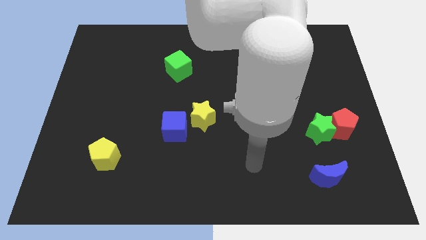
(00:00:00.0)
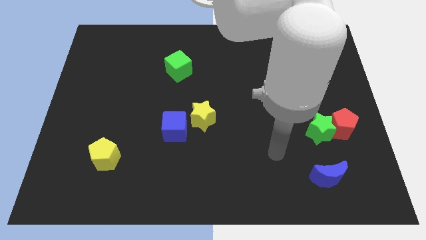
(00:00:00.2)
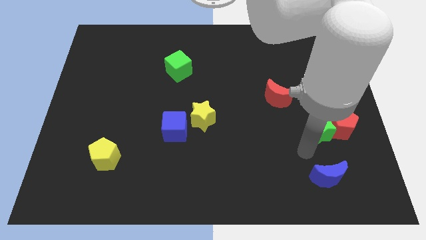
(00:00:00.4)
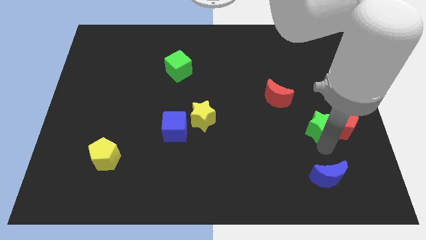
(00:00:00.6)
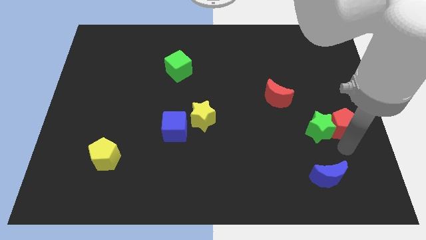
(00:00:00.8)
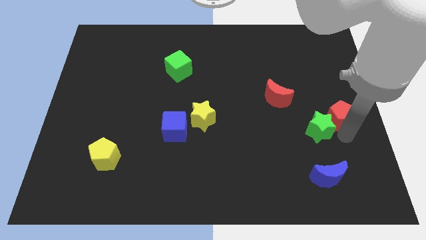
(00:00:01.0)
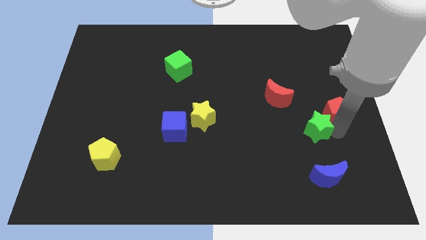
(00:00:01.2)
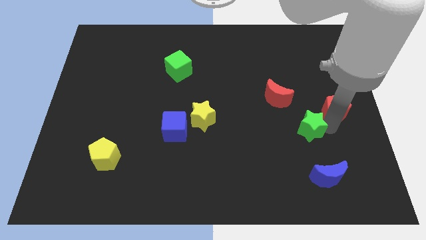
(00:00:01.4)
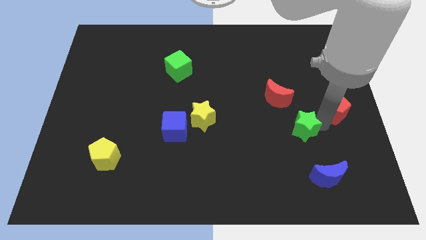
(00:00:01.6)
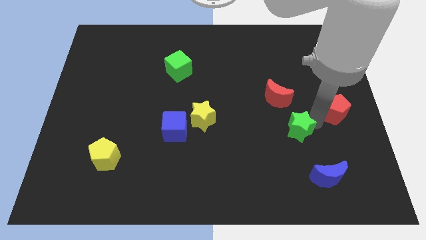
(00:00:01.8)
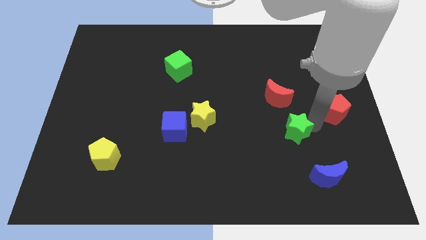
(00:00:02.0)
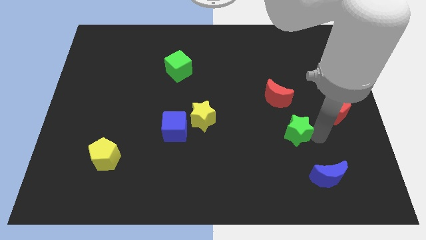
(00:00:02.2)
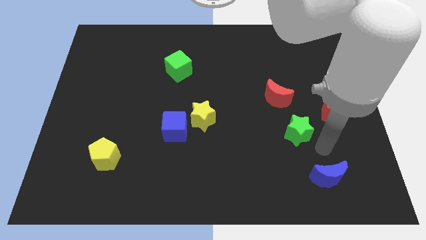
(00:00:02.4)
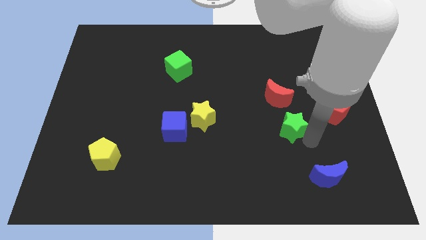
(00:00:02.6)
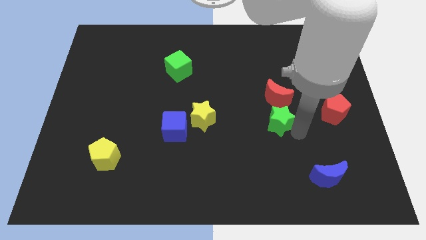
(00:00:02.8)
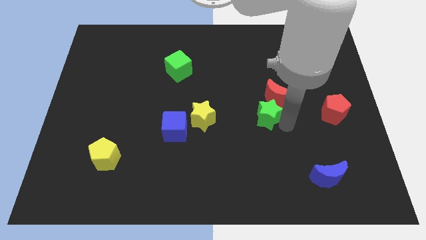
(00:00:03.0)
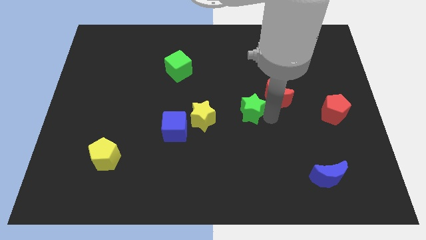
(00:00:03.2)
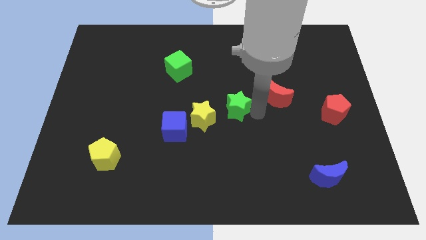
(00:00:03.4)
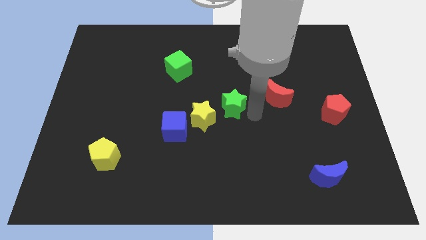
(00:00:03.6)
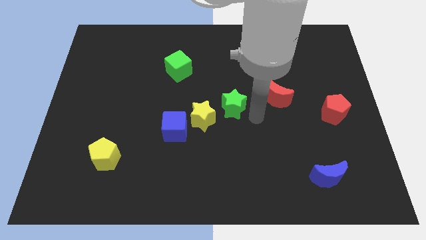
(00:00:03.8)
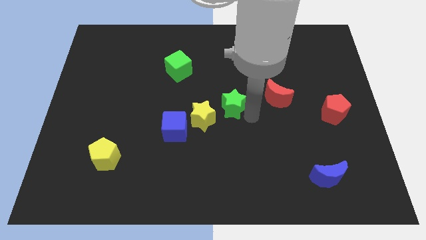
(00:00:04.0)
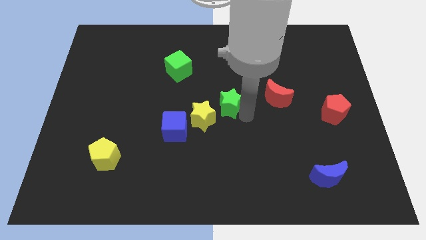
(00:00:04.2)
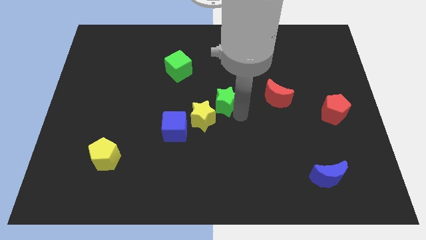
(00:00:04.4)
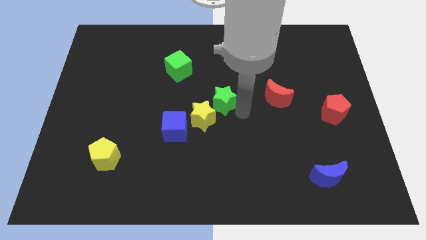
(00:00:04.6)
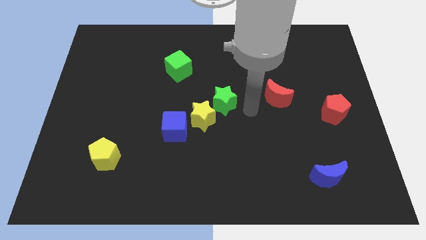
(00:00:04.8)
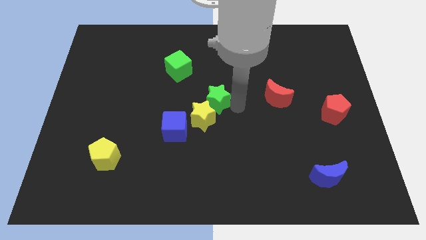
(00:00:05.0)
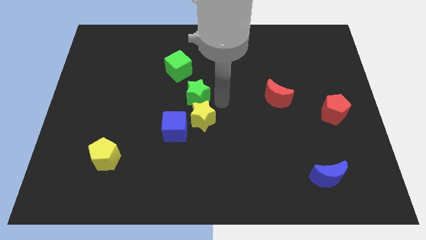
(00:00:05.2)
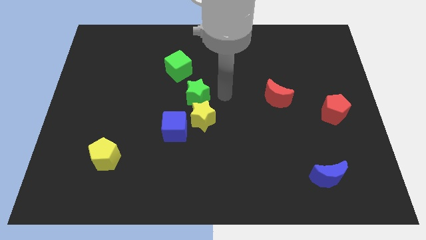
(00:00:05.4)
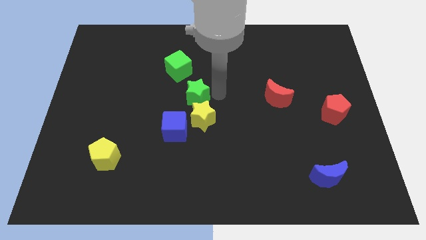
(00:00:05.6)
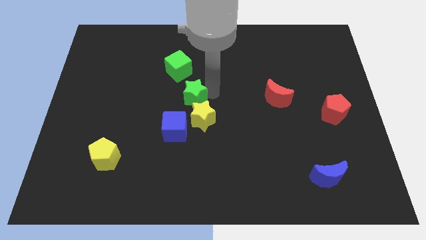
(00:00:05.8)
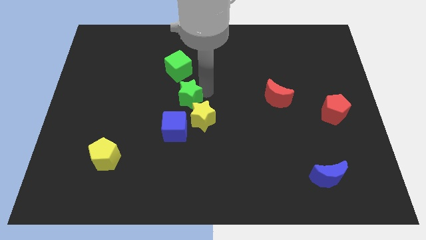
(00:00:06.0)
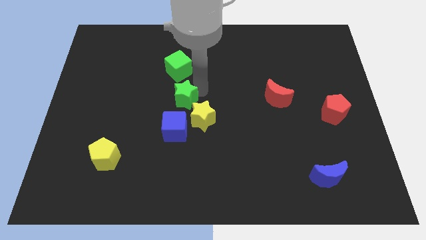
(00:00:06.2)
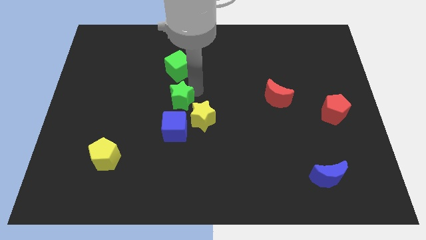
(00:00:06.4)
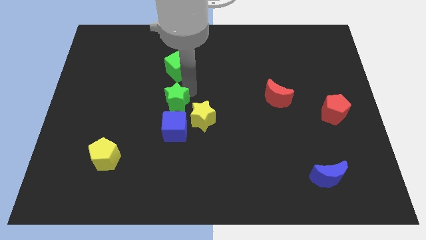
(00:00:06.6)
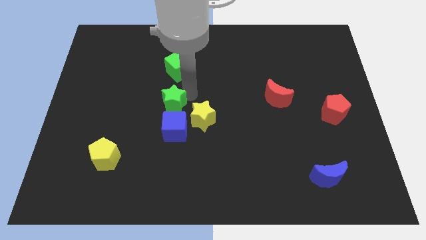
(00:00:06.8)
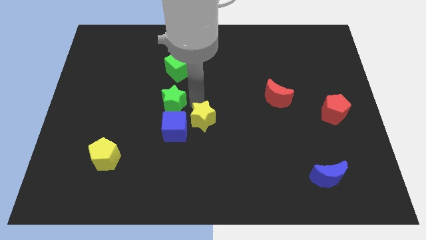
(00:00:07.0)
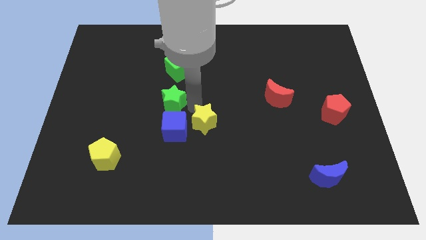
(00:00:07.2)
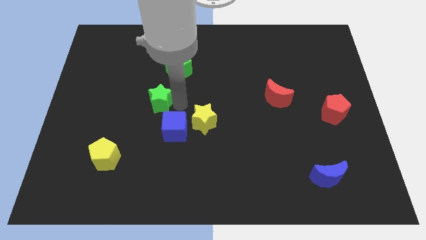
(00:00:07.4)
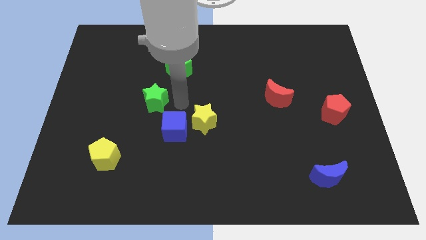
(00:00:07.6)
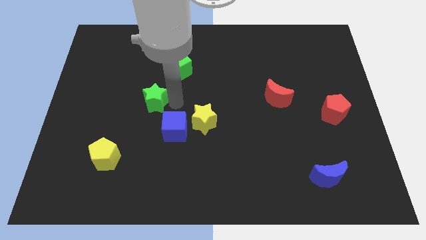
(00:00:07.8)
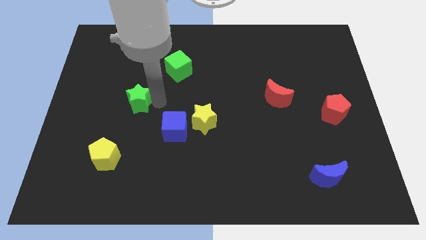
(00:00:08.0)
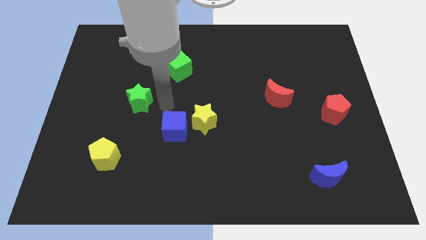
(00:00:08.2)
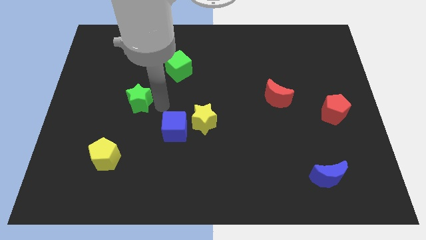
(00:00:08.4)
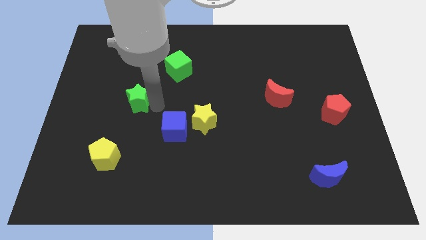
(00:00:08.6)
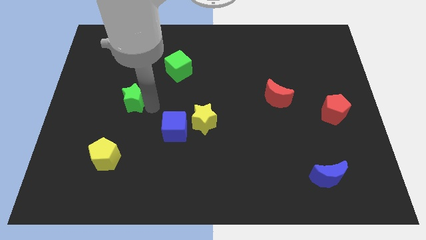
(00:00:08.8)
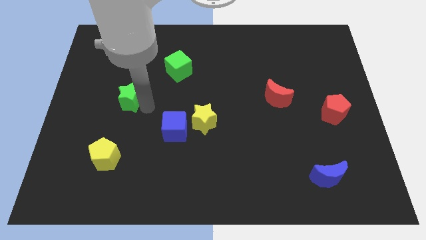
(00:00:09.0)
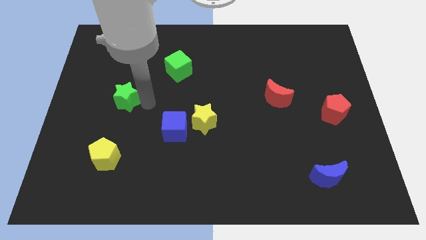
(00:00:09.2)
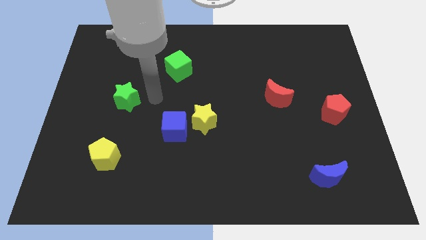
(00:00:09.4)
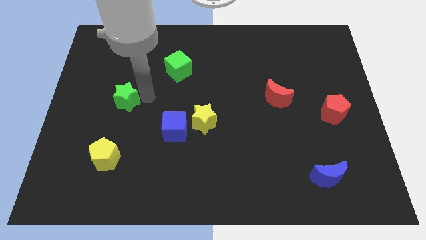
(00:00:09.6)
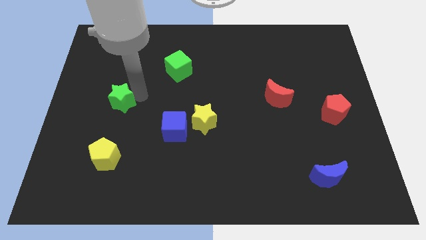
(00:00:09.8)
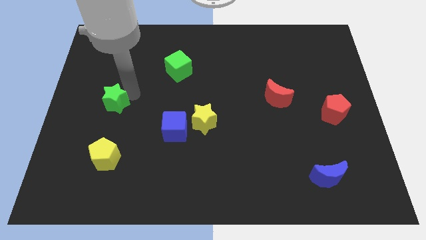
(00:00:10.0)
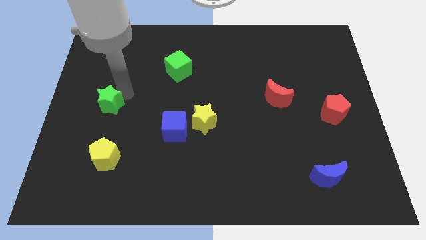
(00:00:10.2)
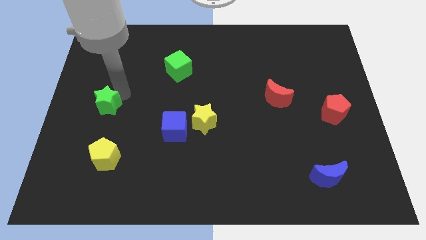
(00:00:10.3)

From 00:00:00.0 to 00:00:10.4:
push the green star to the center left

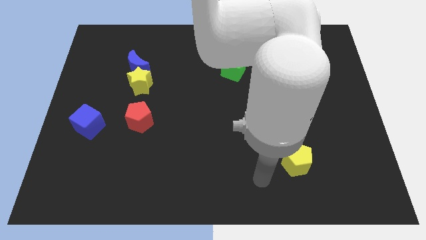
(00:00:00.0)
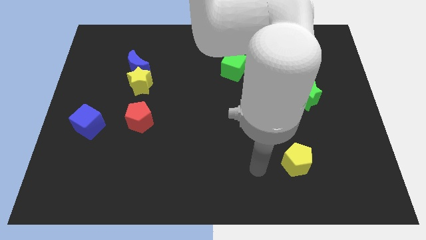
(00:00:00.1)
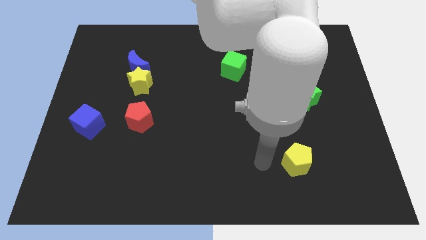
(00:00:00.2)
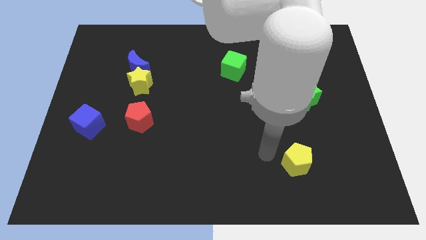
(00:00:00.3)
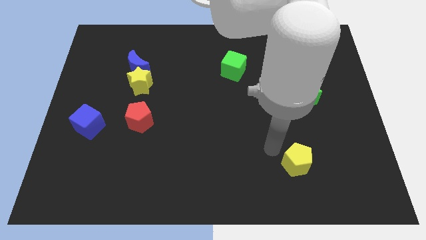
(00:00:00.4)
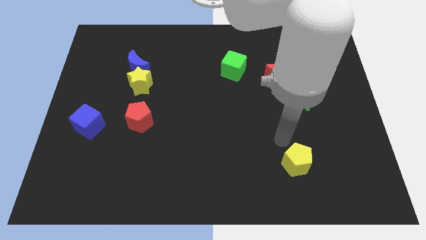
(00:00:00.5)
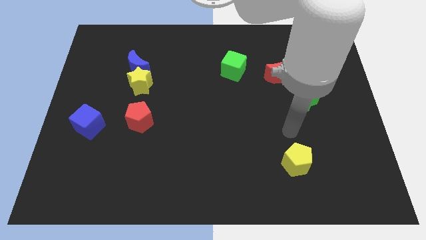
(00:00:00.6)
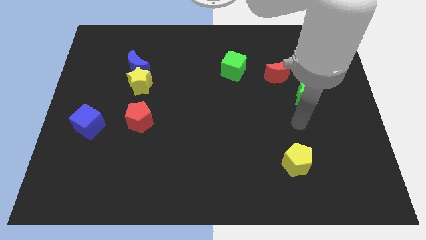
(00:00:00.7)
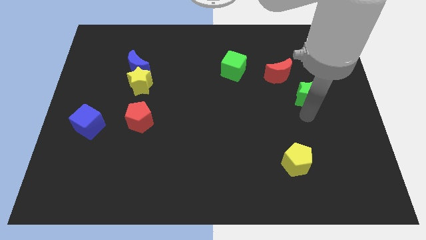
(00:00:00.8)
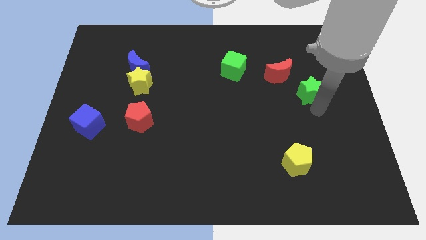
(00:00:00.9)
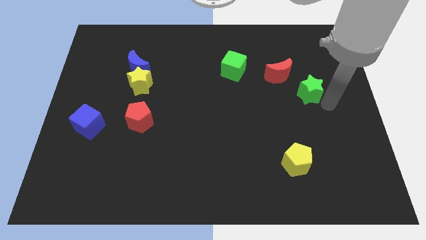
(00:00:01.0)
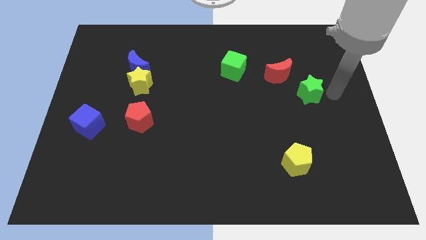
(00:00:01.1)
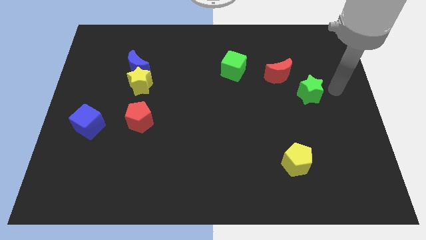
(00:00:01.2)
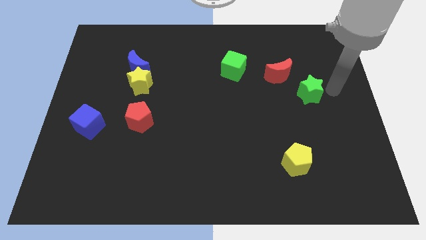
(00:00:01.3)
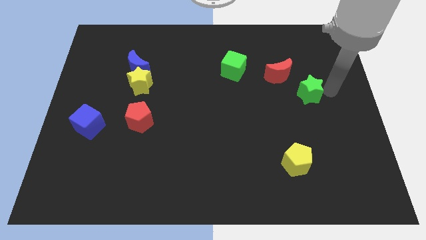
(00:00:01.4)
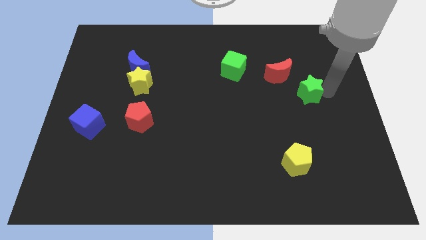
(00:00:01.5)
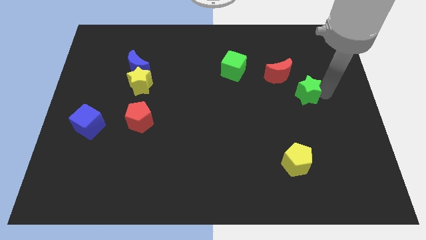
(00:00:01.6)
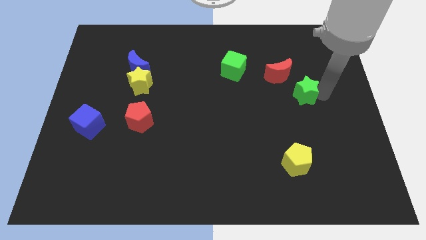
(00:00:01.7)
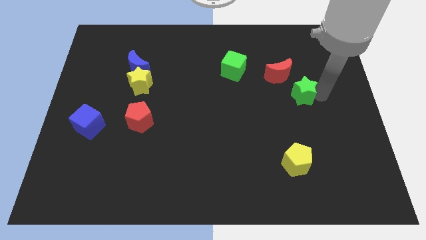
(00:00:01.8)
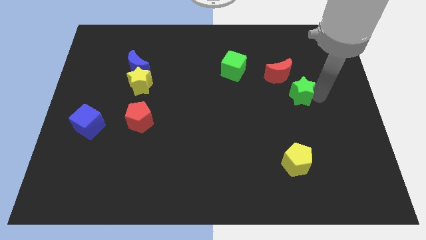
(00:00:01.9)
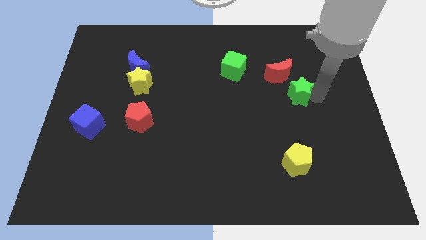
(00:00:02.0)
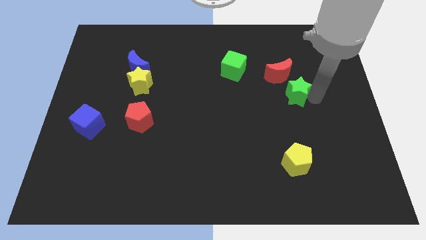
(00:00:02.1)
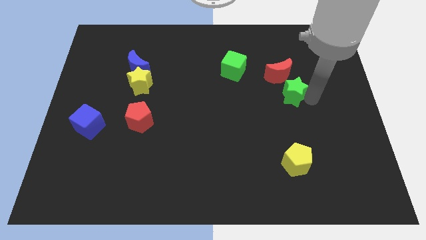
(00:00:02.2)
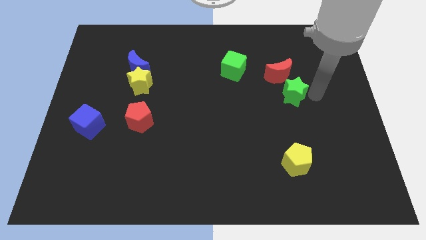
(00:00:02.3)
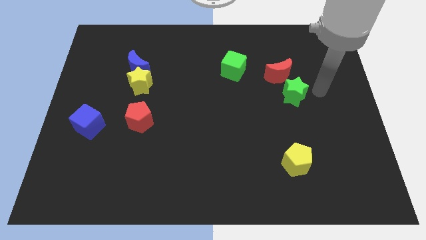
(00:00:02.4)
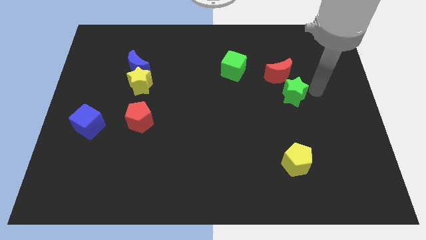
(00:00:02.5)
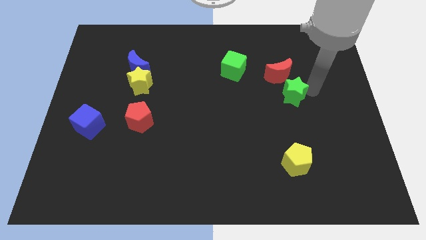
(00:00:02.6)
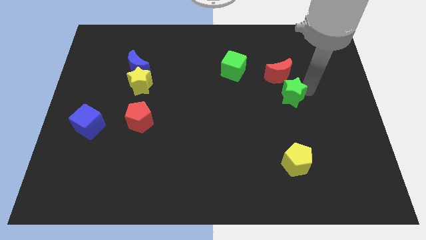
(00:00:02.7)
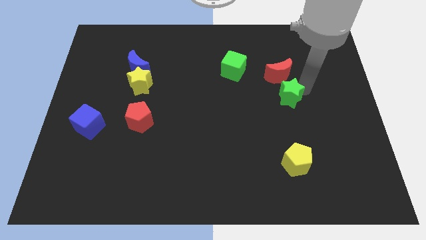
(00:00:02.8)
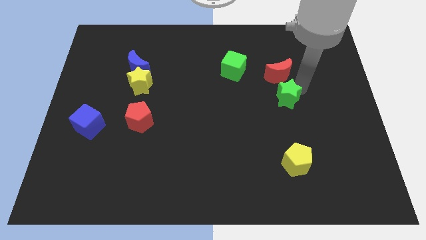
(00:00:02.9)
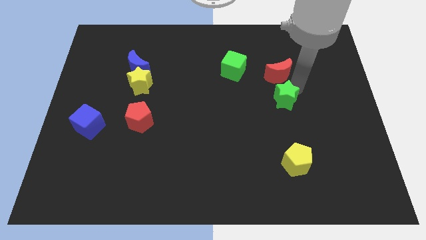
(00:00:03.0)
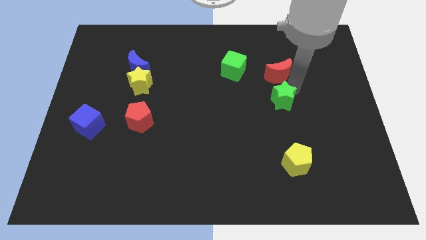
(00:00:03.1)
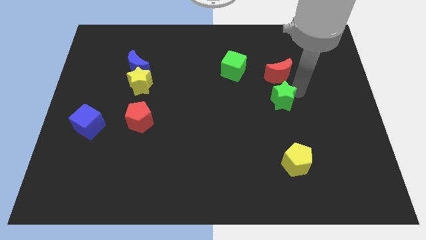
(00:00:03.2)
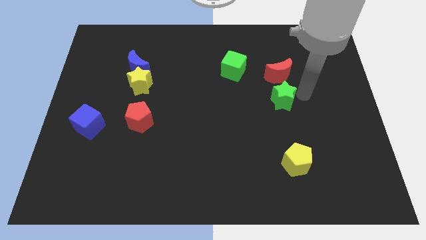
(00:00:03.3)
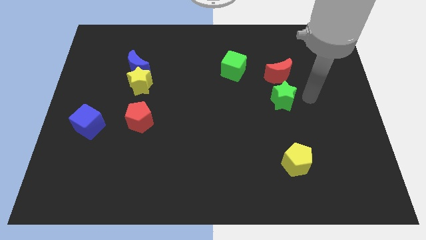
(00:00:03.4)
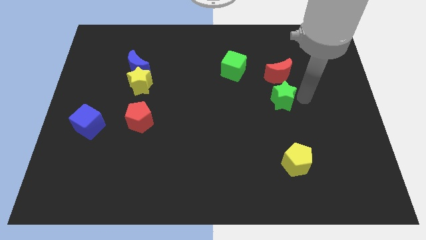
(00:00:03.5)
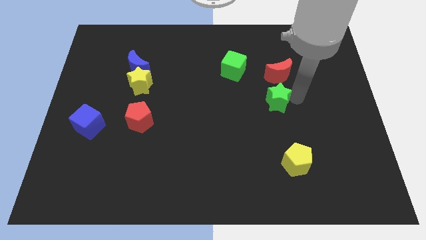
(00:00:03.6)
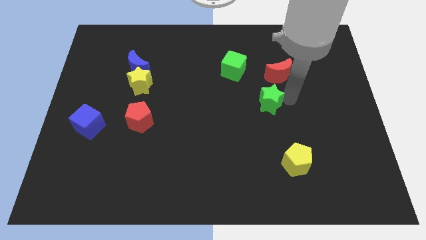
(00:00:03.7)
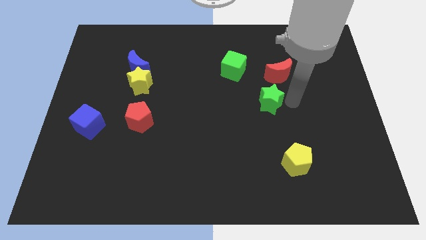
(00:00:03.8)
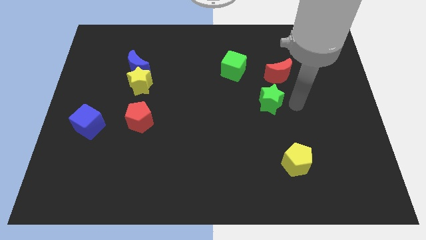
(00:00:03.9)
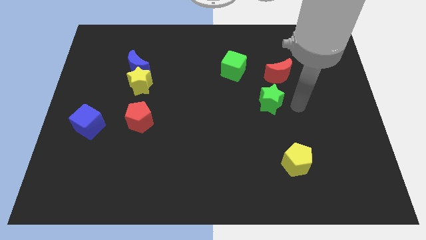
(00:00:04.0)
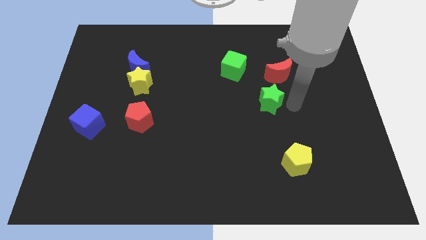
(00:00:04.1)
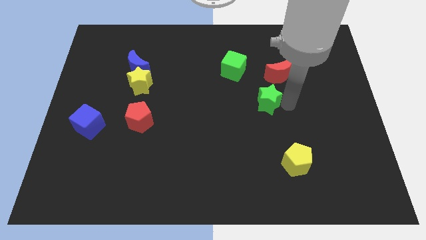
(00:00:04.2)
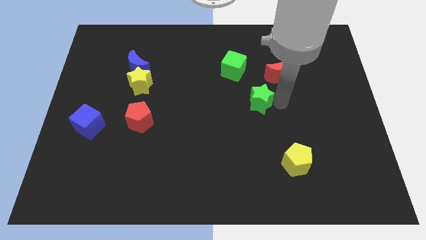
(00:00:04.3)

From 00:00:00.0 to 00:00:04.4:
push the green star to the middle of the board
